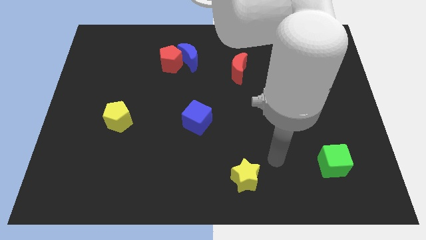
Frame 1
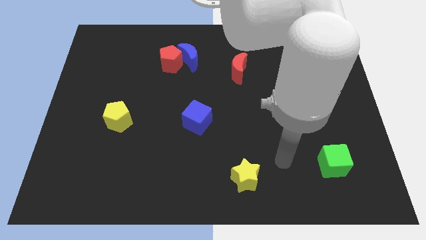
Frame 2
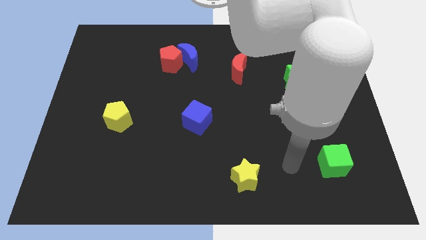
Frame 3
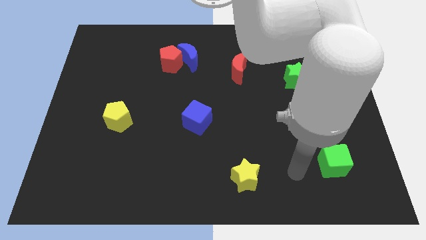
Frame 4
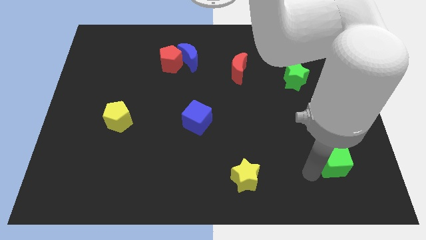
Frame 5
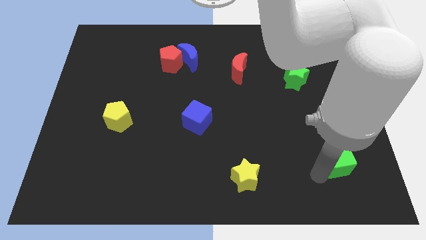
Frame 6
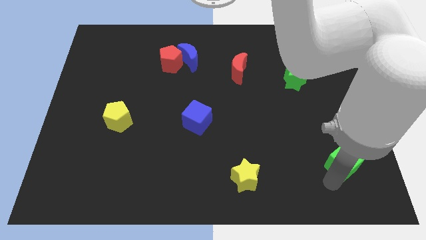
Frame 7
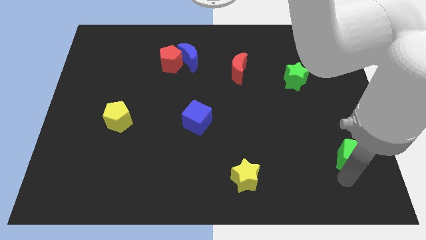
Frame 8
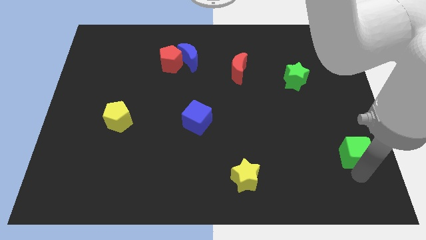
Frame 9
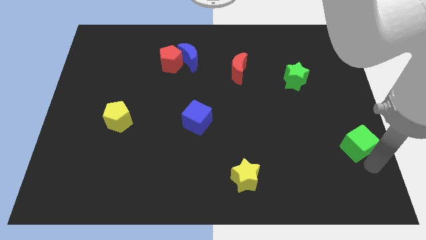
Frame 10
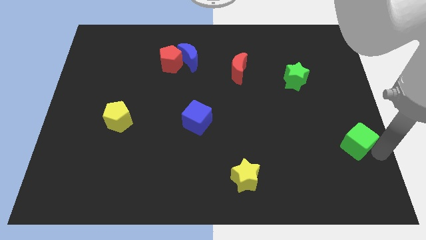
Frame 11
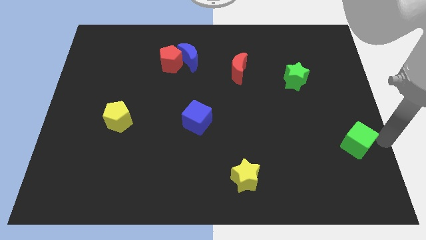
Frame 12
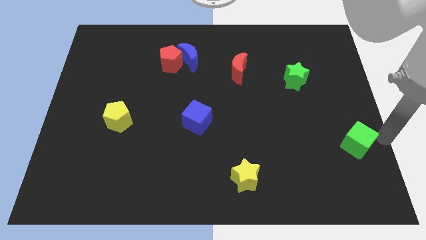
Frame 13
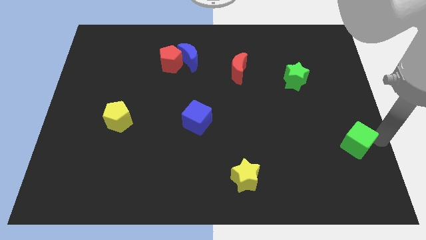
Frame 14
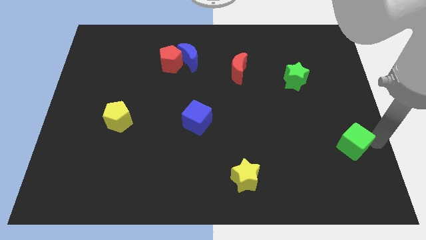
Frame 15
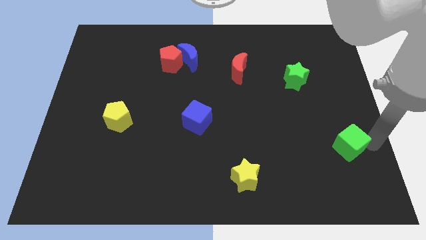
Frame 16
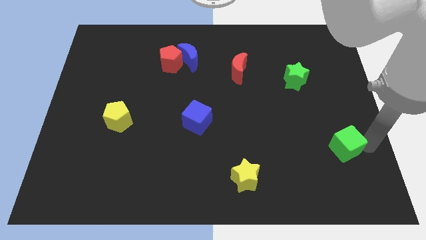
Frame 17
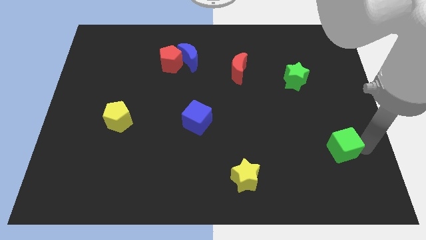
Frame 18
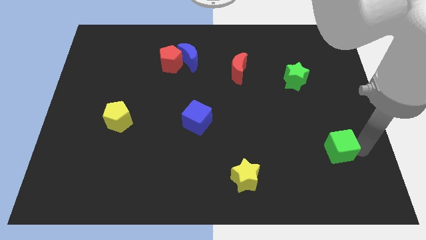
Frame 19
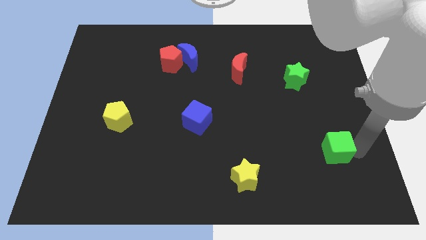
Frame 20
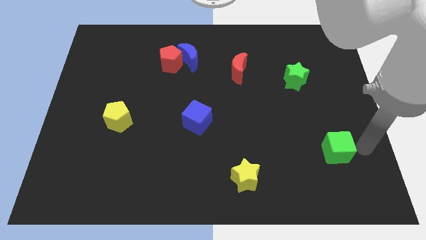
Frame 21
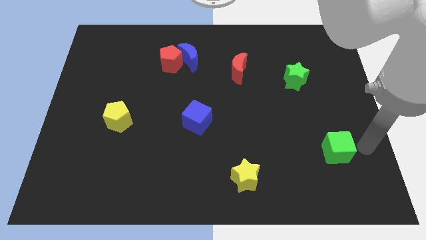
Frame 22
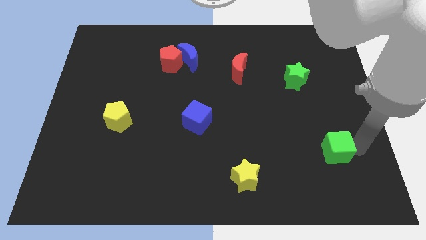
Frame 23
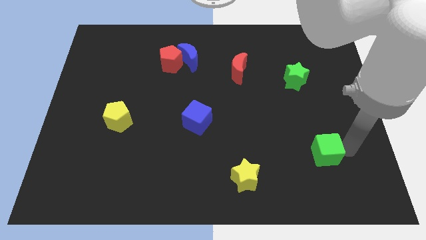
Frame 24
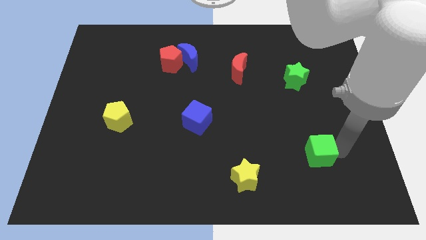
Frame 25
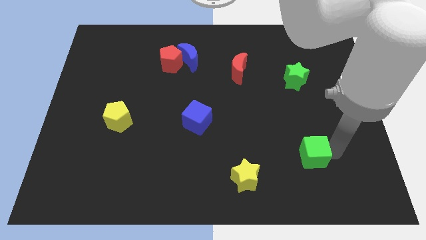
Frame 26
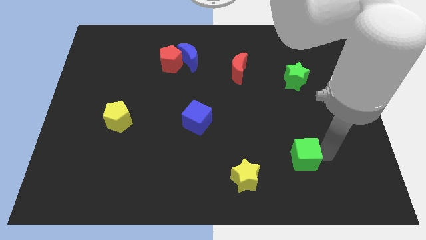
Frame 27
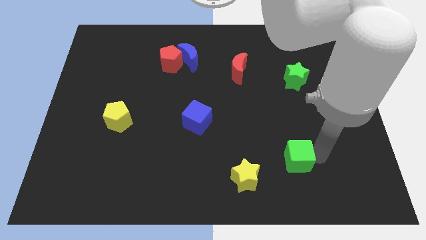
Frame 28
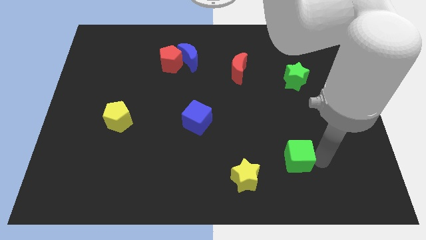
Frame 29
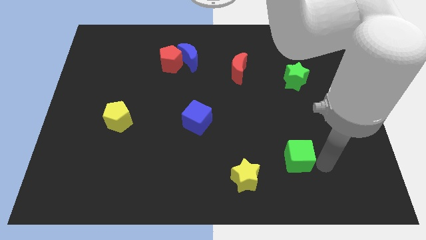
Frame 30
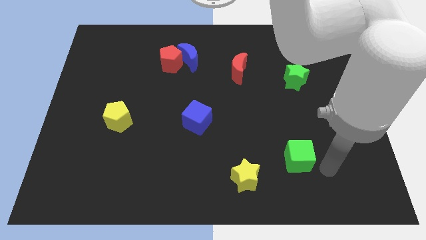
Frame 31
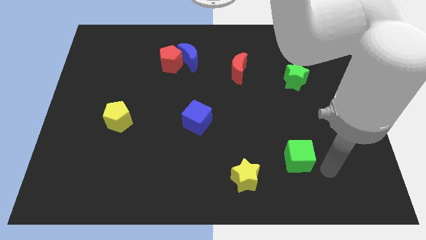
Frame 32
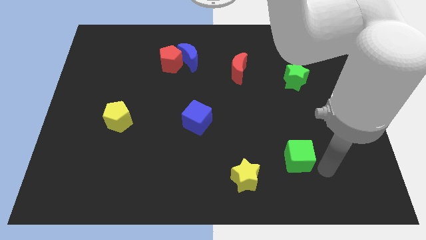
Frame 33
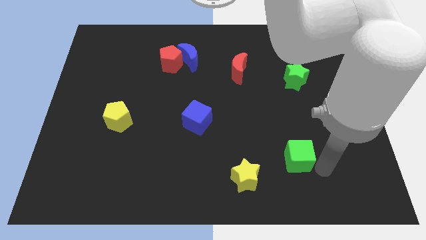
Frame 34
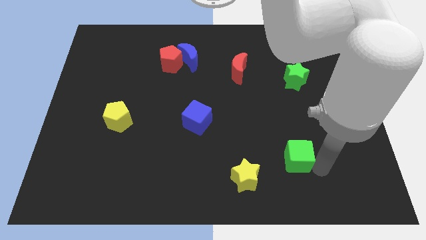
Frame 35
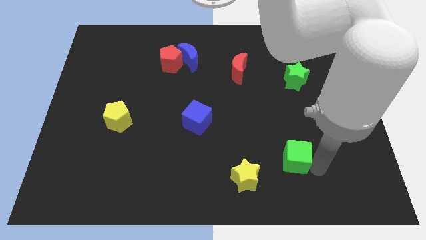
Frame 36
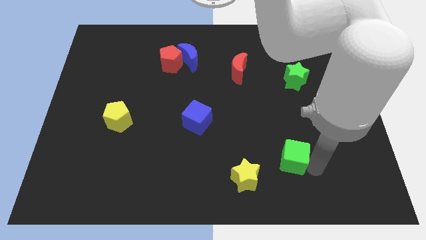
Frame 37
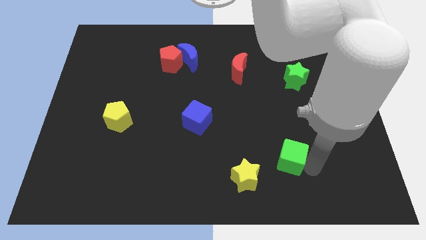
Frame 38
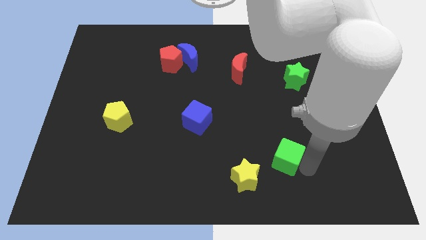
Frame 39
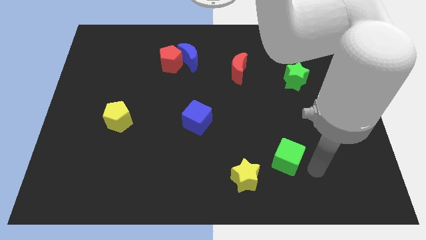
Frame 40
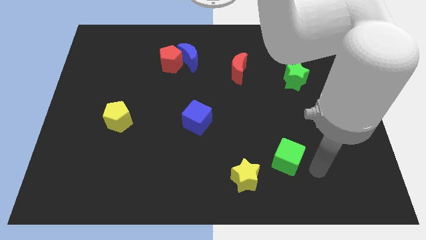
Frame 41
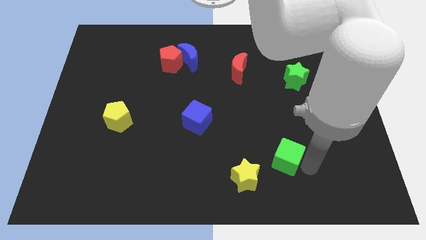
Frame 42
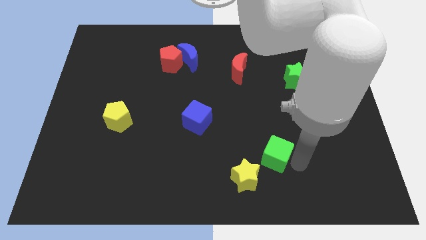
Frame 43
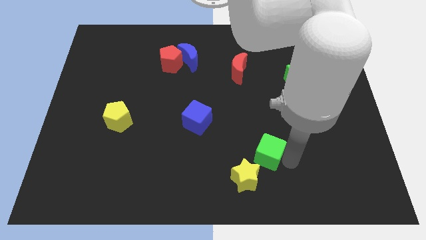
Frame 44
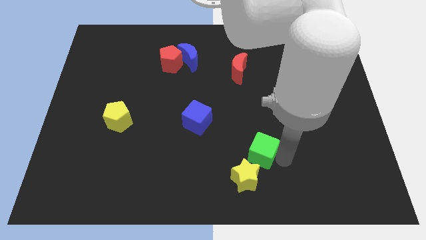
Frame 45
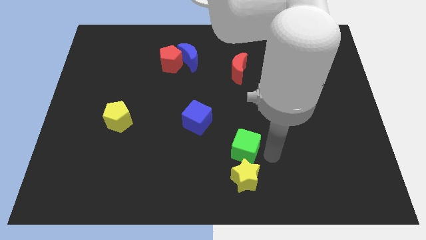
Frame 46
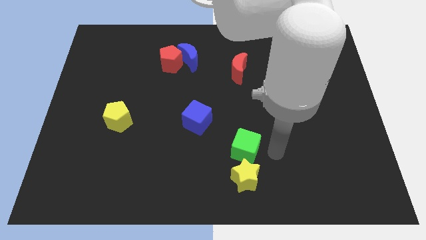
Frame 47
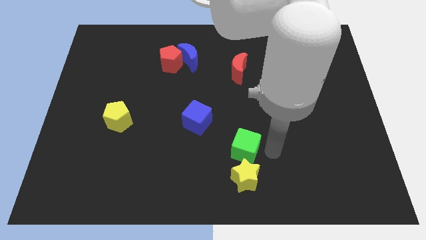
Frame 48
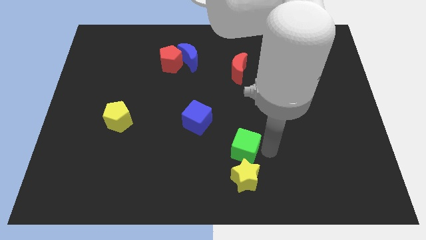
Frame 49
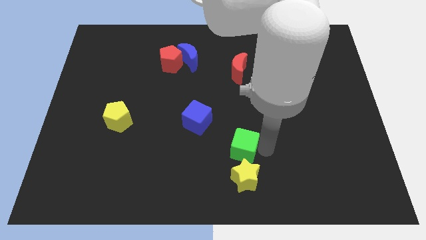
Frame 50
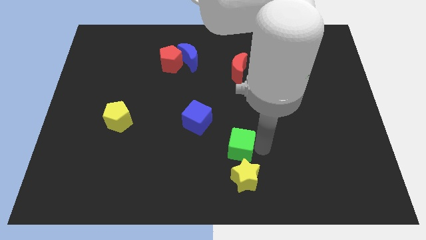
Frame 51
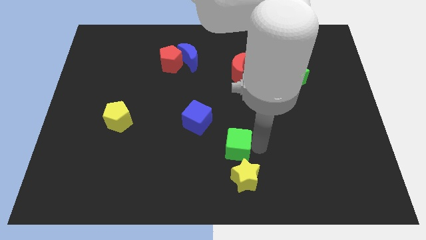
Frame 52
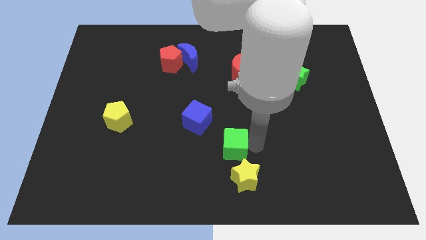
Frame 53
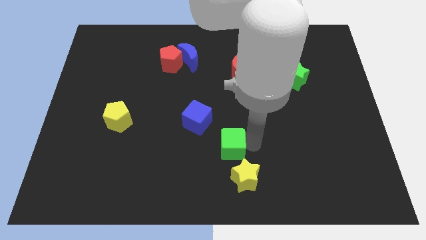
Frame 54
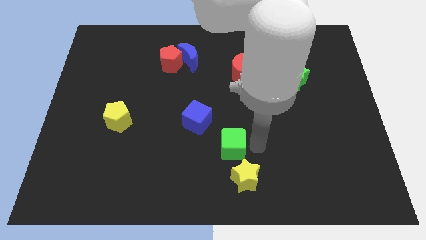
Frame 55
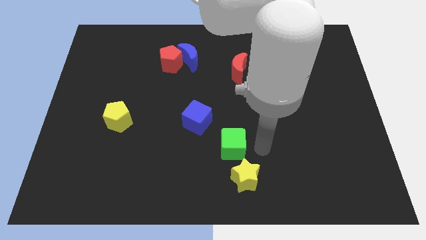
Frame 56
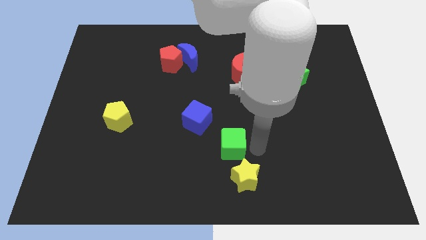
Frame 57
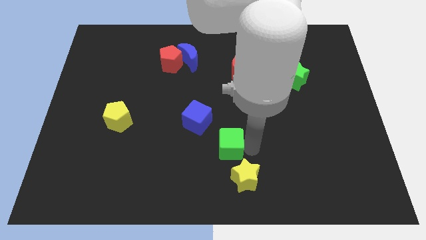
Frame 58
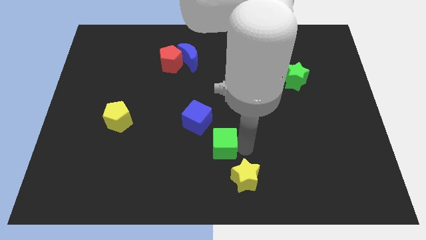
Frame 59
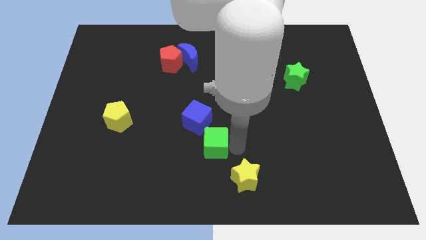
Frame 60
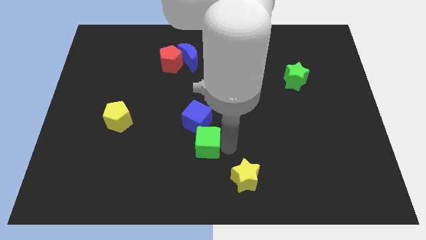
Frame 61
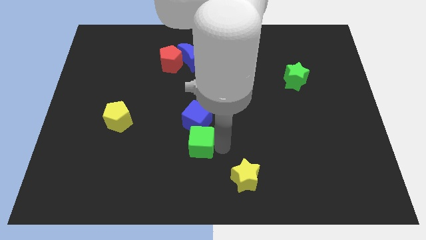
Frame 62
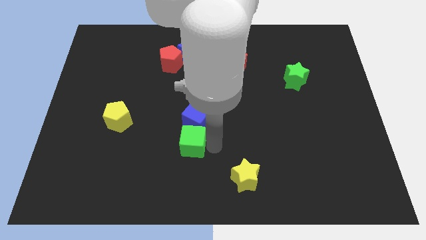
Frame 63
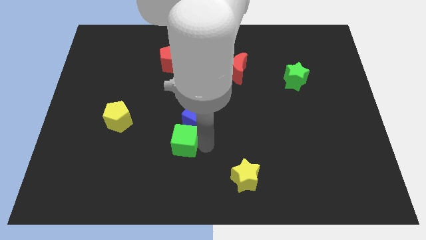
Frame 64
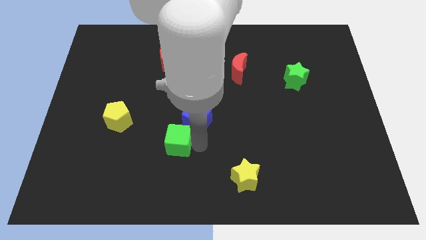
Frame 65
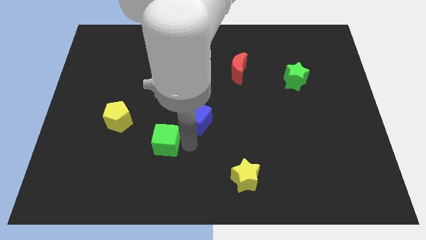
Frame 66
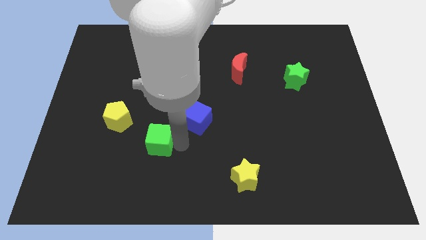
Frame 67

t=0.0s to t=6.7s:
move the green cube diagonally down and to the right of the yellow pentagon
